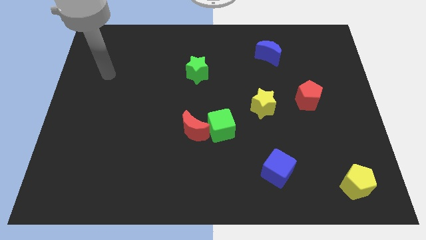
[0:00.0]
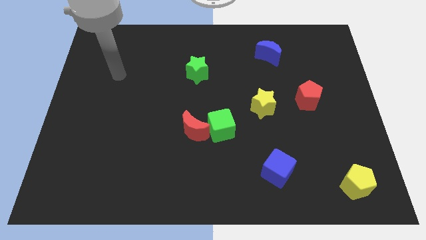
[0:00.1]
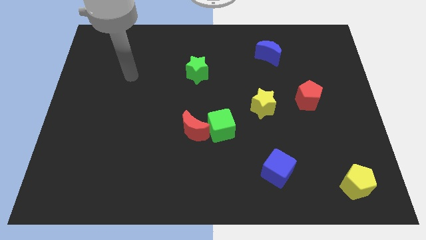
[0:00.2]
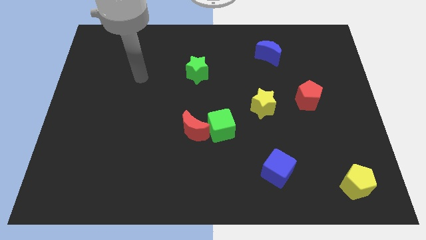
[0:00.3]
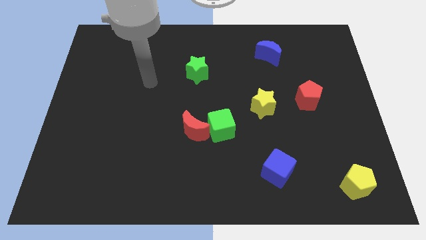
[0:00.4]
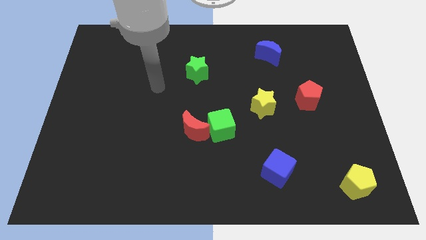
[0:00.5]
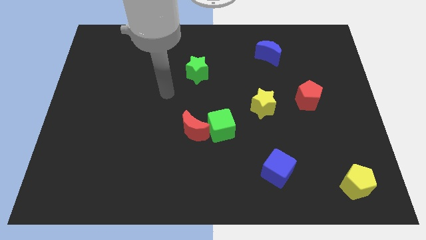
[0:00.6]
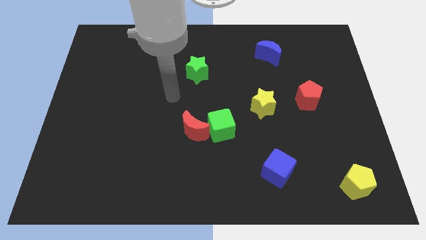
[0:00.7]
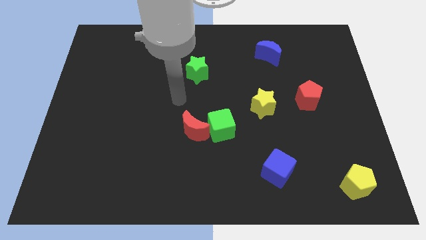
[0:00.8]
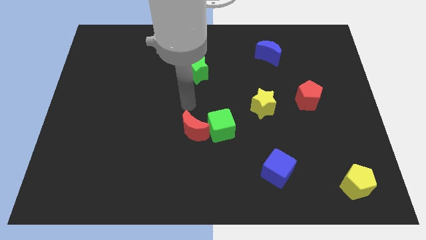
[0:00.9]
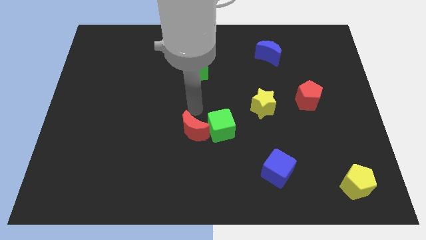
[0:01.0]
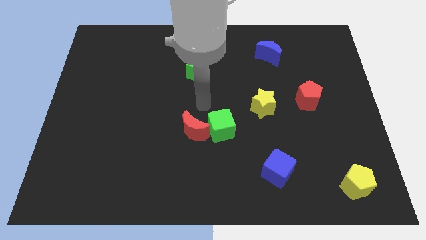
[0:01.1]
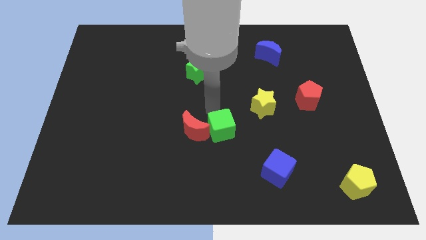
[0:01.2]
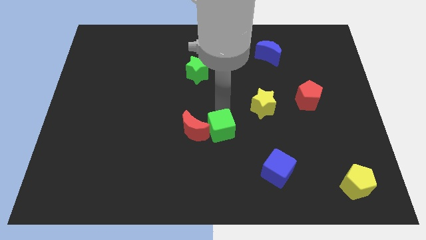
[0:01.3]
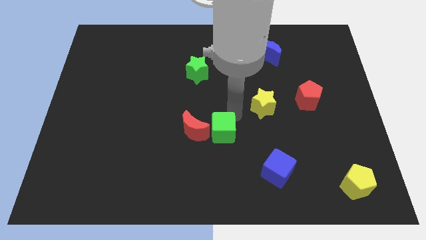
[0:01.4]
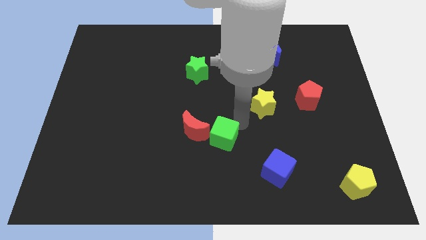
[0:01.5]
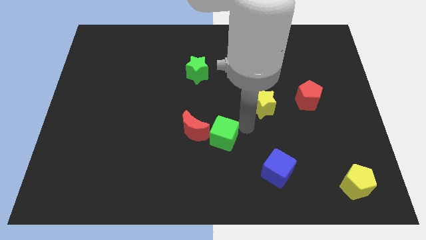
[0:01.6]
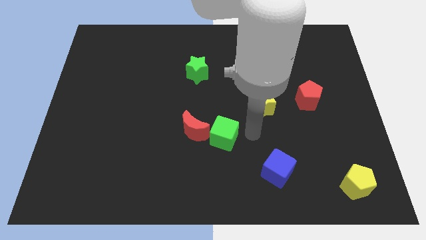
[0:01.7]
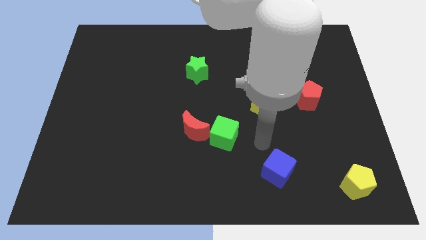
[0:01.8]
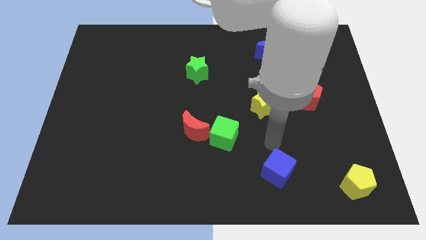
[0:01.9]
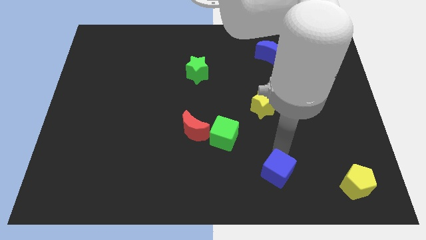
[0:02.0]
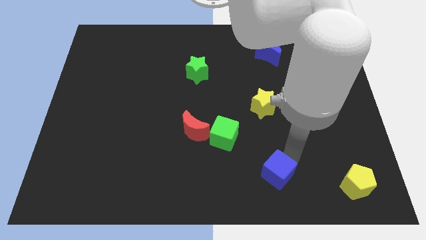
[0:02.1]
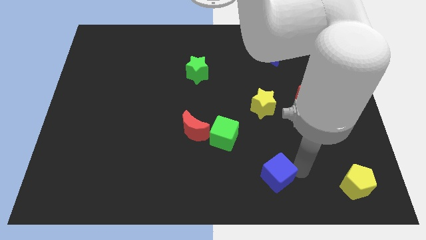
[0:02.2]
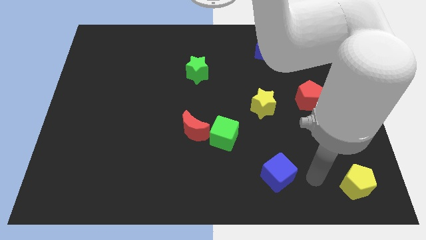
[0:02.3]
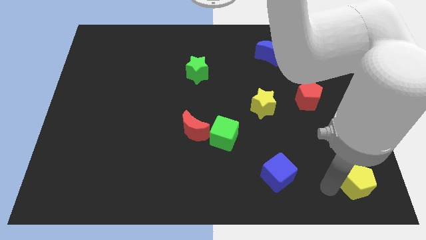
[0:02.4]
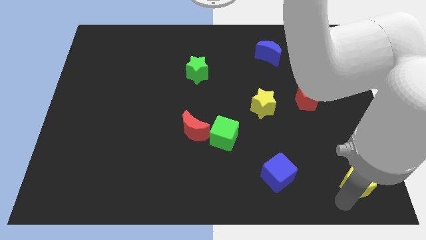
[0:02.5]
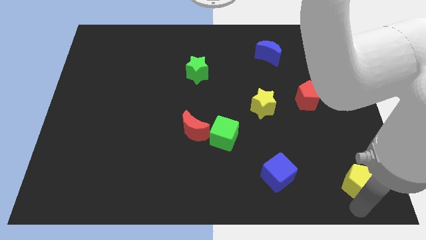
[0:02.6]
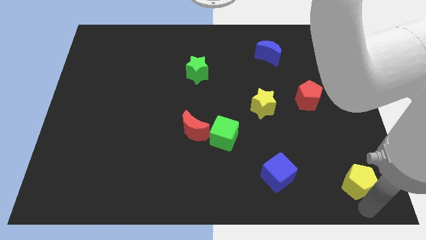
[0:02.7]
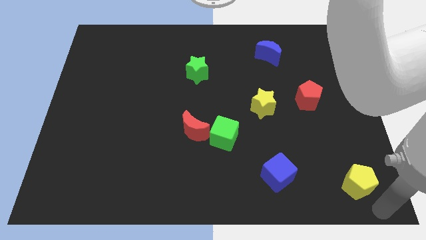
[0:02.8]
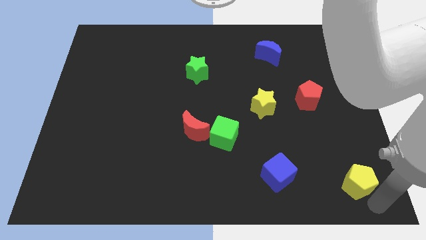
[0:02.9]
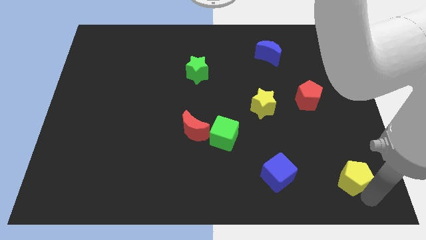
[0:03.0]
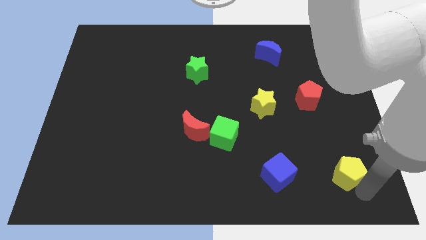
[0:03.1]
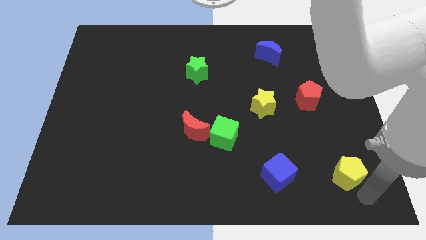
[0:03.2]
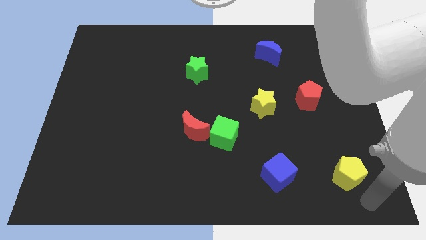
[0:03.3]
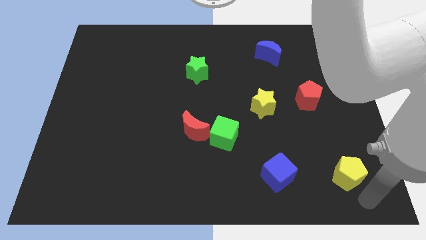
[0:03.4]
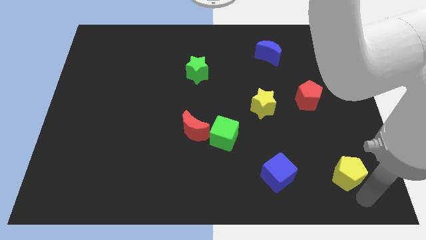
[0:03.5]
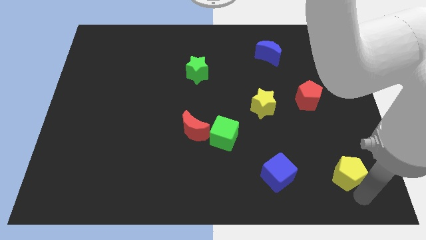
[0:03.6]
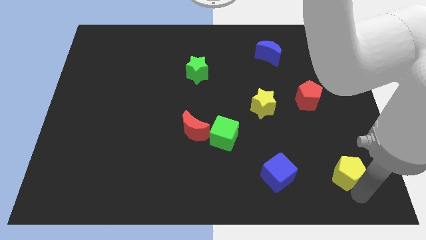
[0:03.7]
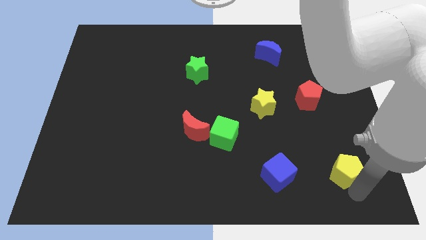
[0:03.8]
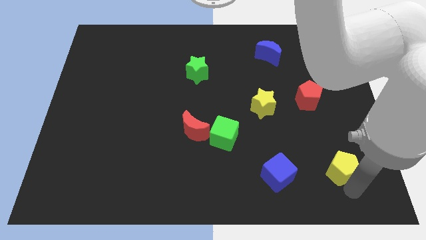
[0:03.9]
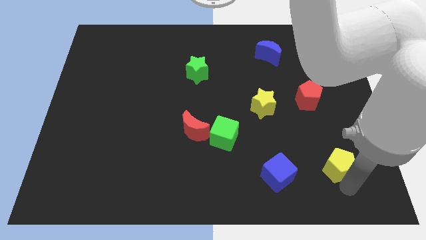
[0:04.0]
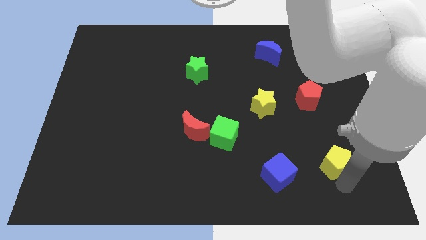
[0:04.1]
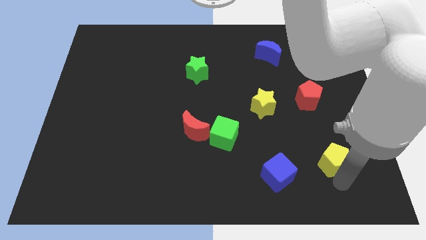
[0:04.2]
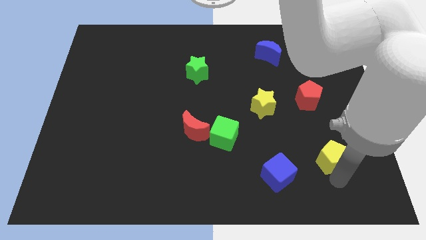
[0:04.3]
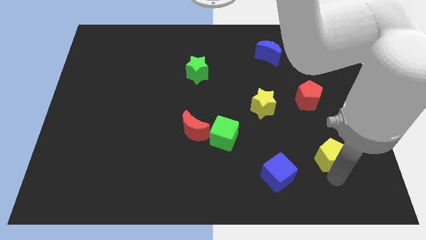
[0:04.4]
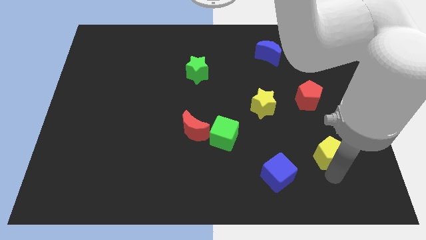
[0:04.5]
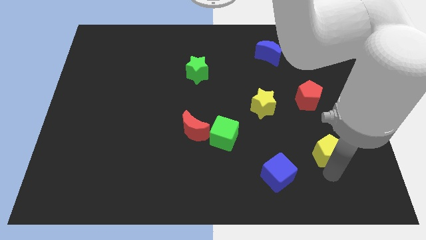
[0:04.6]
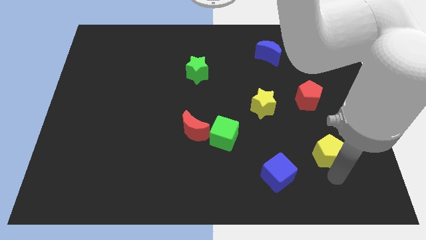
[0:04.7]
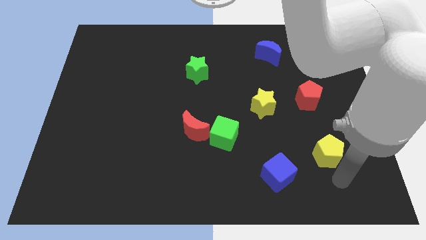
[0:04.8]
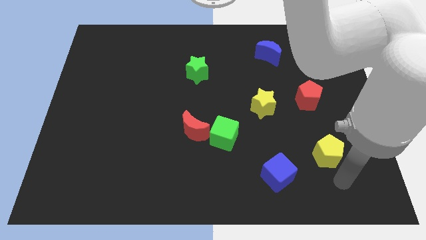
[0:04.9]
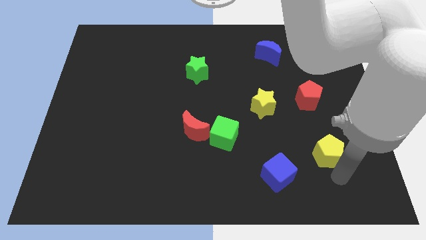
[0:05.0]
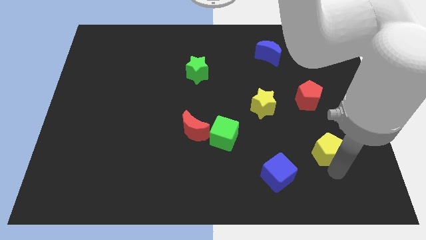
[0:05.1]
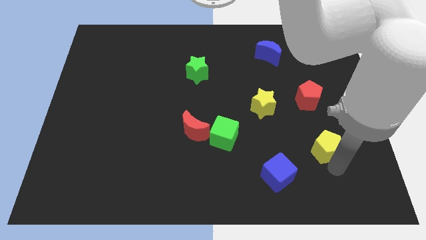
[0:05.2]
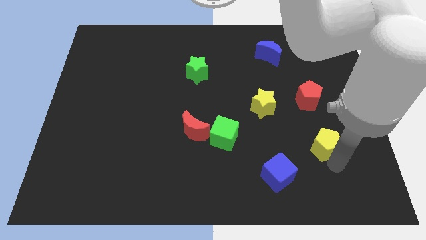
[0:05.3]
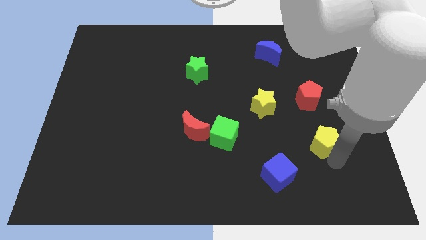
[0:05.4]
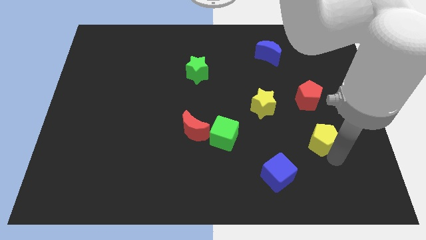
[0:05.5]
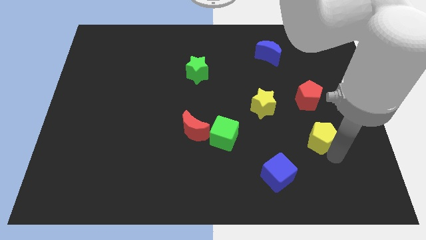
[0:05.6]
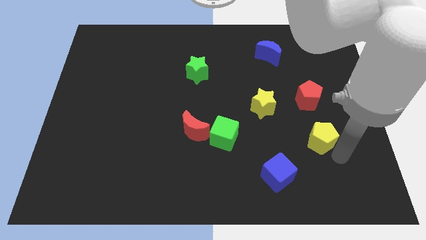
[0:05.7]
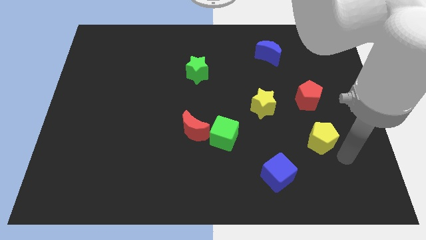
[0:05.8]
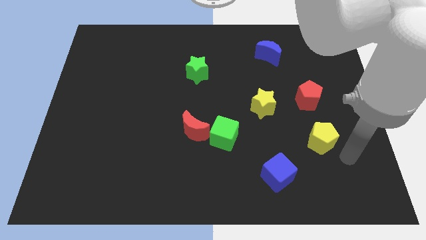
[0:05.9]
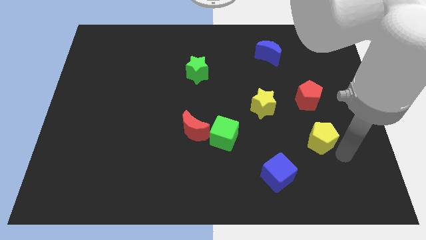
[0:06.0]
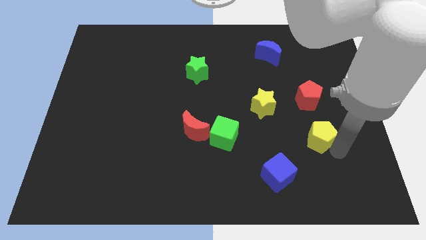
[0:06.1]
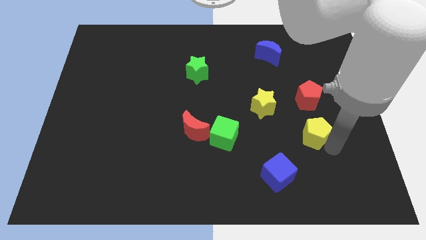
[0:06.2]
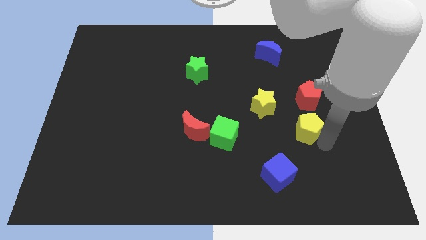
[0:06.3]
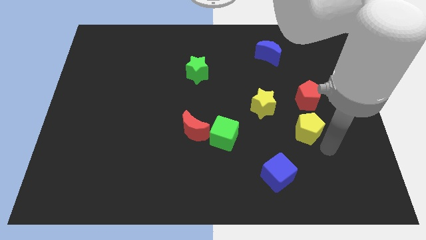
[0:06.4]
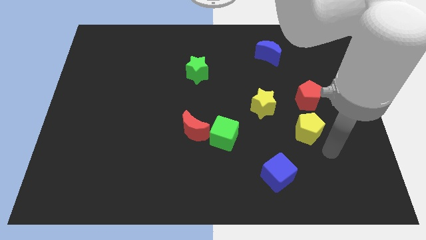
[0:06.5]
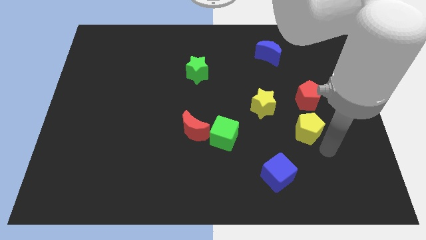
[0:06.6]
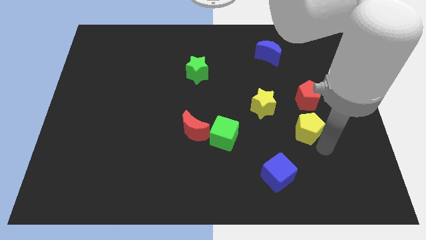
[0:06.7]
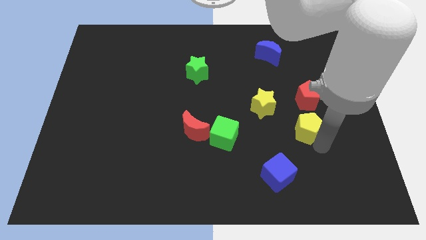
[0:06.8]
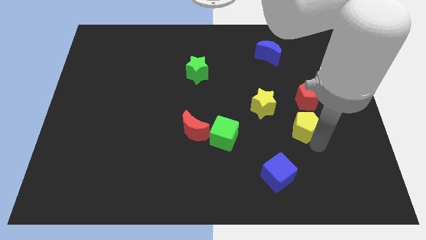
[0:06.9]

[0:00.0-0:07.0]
slide the yellow pentagon to the bottom left side of the red pentagon

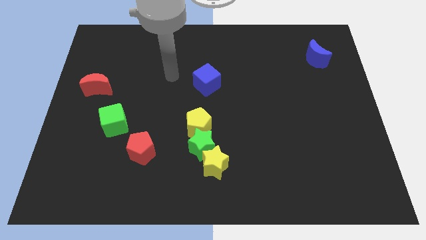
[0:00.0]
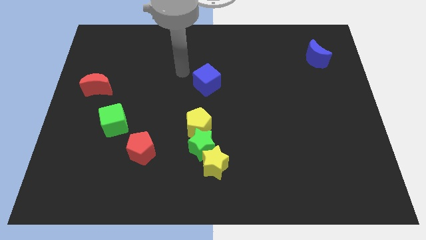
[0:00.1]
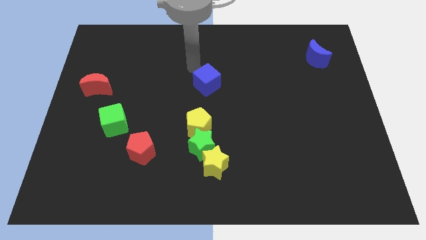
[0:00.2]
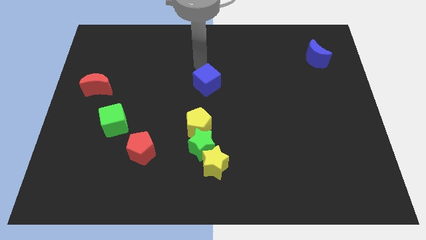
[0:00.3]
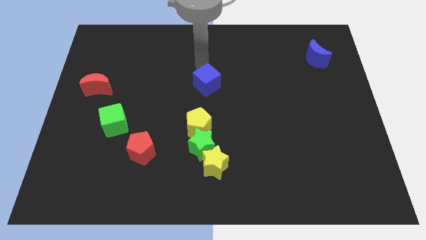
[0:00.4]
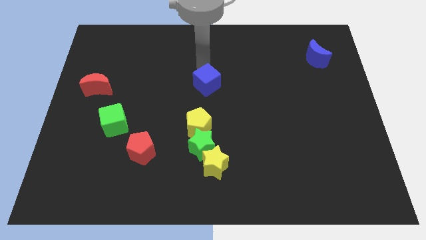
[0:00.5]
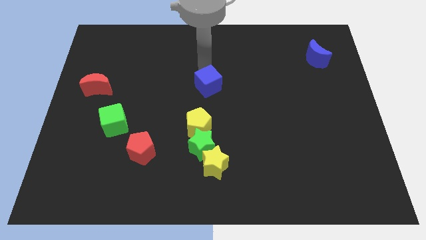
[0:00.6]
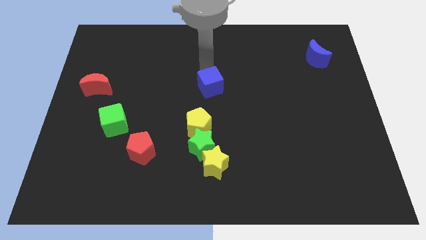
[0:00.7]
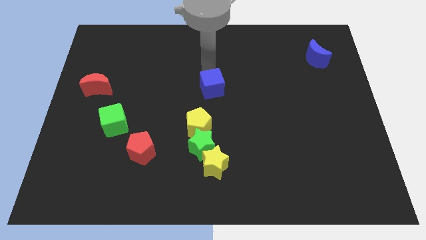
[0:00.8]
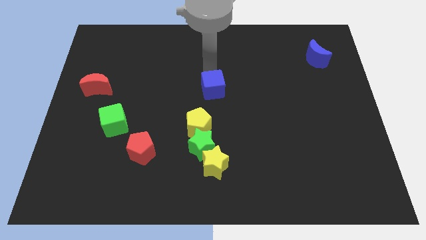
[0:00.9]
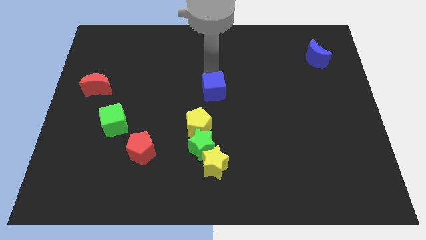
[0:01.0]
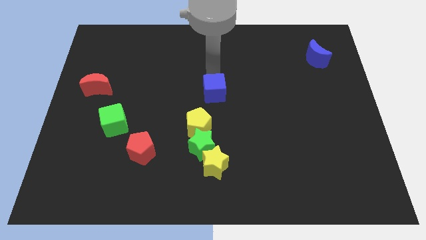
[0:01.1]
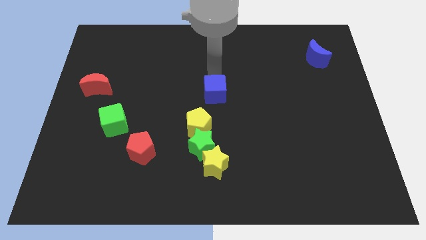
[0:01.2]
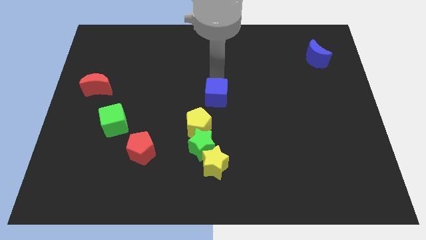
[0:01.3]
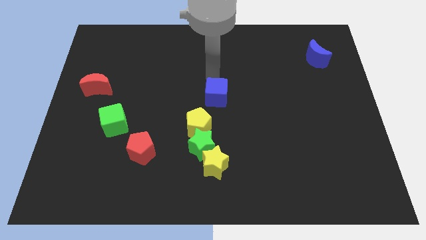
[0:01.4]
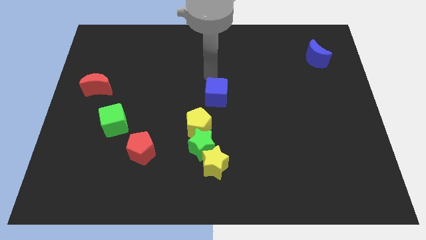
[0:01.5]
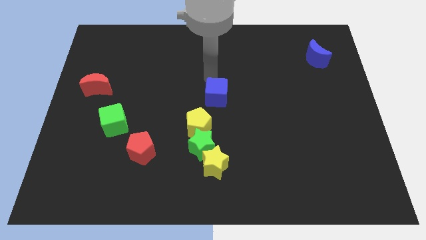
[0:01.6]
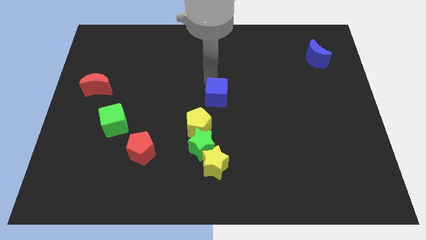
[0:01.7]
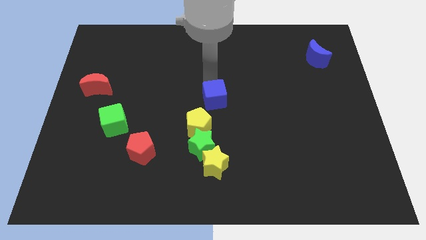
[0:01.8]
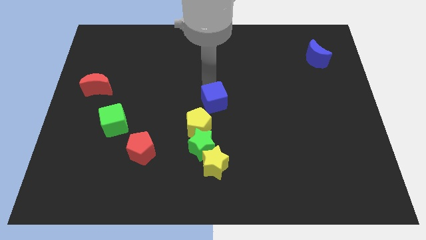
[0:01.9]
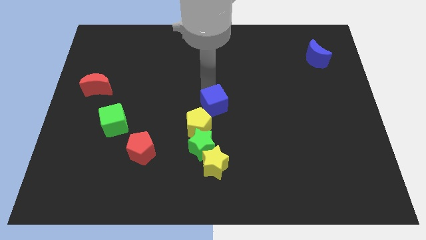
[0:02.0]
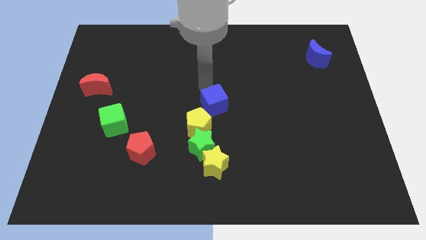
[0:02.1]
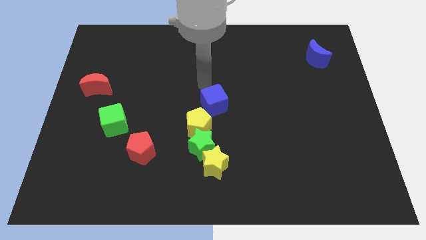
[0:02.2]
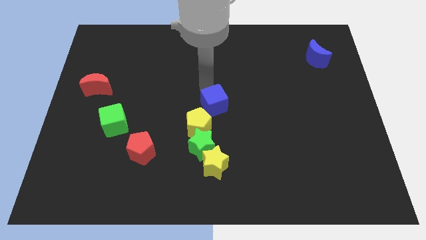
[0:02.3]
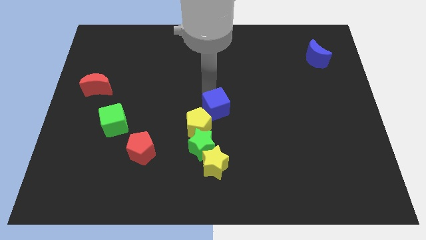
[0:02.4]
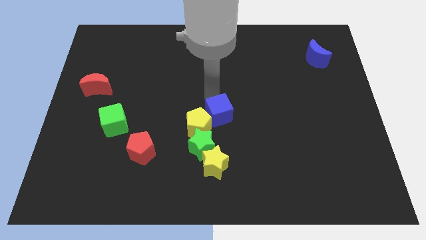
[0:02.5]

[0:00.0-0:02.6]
slide the blue cube diagonally up and to the right of the green star
